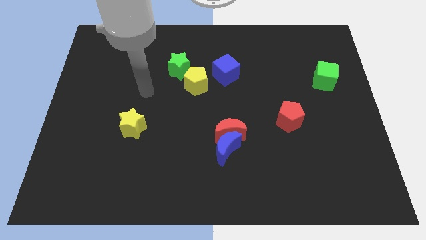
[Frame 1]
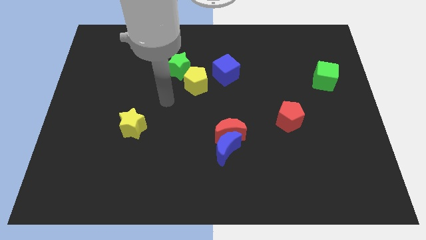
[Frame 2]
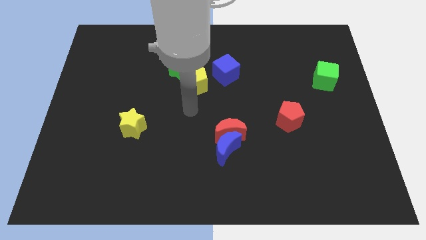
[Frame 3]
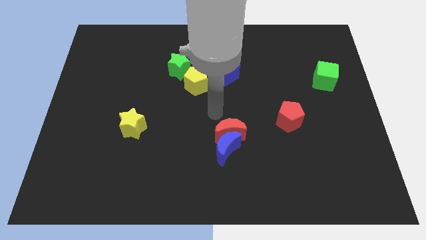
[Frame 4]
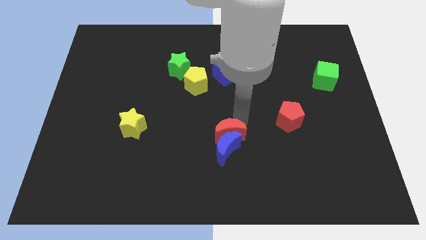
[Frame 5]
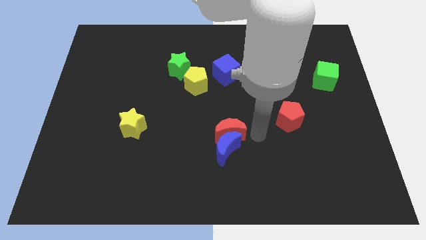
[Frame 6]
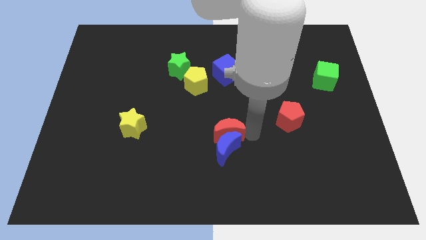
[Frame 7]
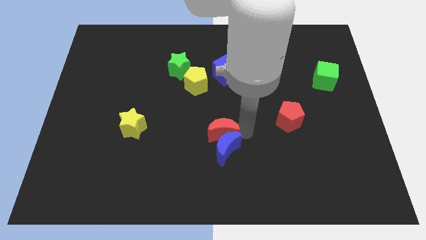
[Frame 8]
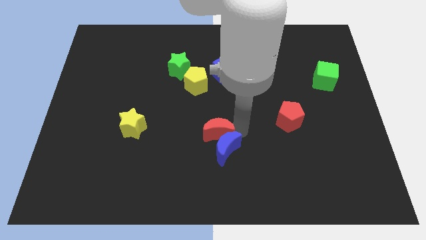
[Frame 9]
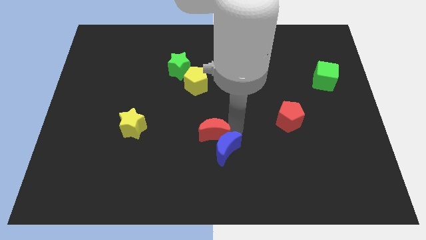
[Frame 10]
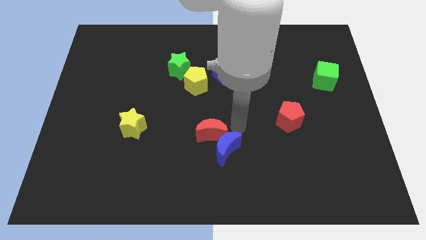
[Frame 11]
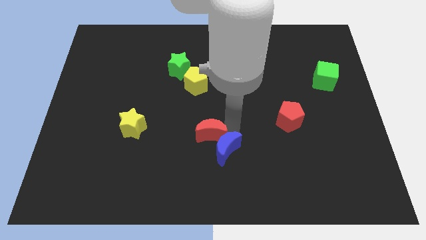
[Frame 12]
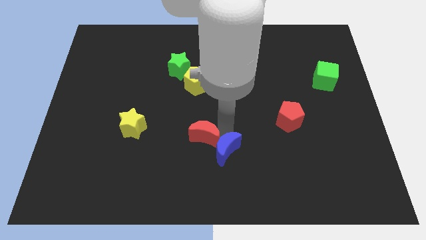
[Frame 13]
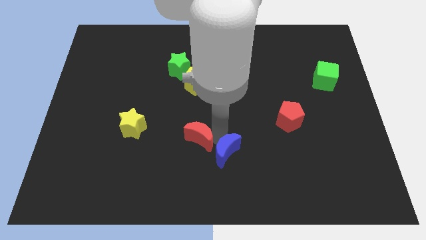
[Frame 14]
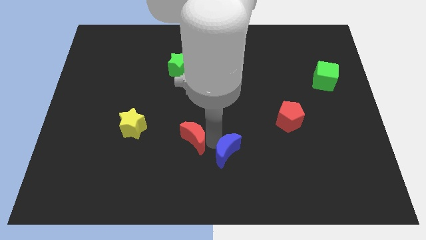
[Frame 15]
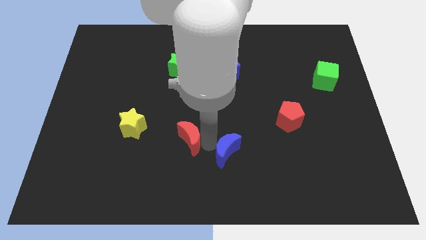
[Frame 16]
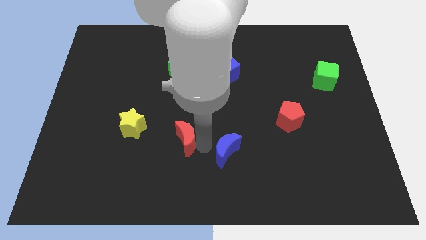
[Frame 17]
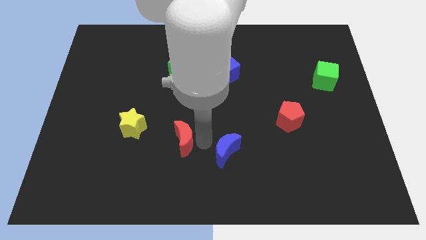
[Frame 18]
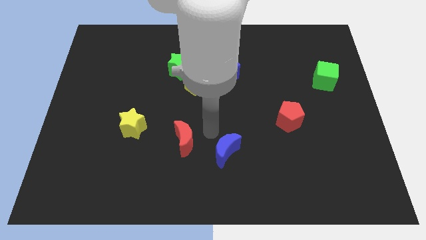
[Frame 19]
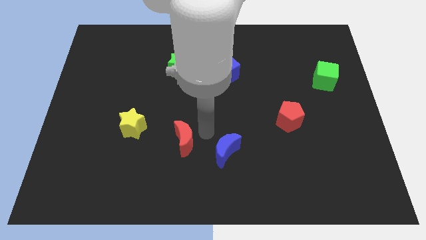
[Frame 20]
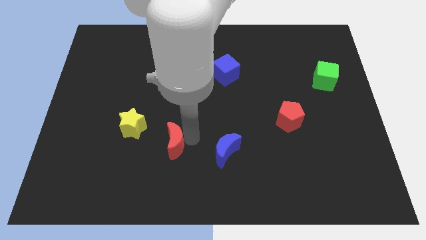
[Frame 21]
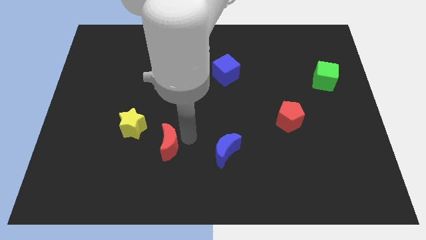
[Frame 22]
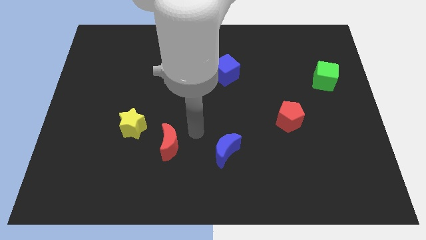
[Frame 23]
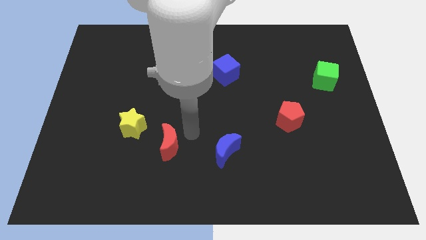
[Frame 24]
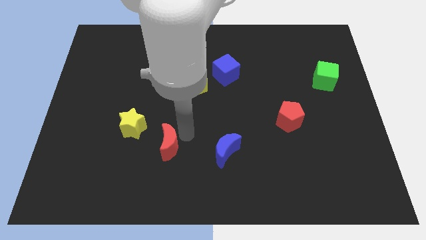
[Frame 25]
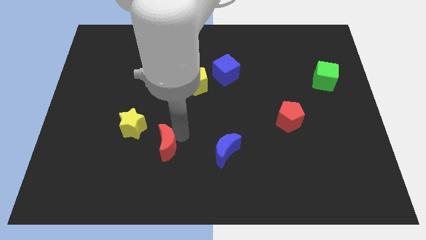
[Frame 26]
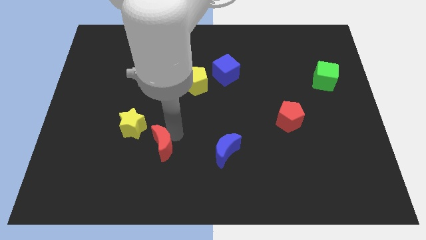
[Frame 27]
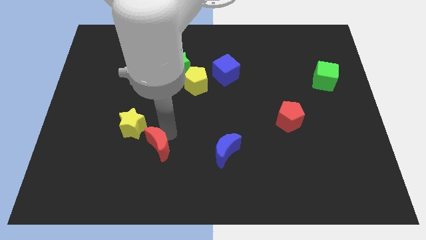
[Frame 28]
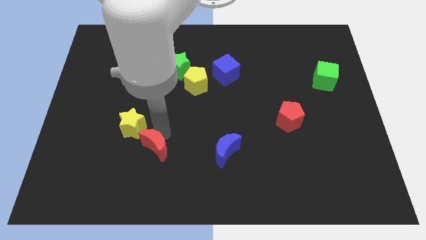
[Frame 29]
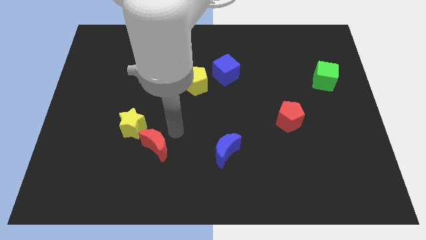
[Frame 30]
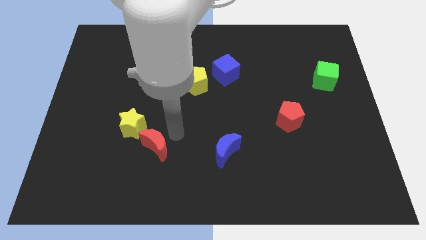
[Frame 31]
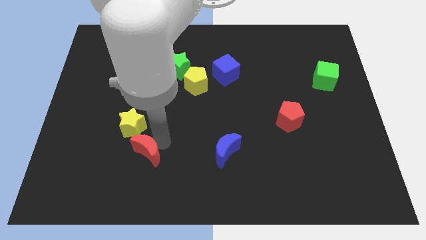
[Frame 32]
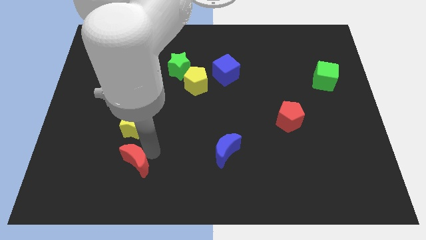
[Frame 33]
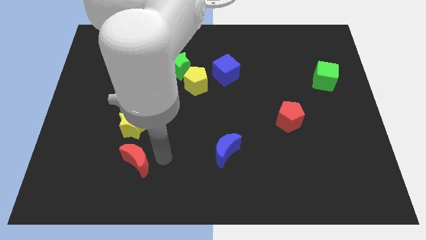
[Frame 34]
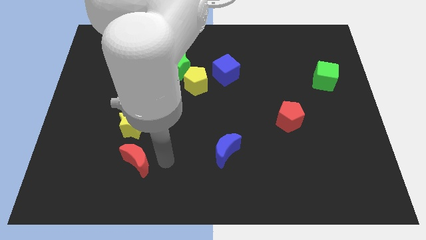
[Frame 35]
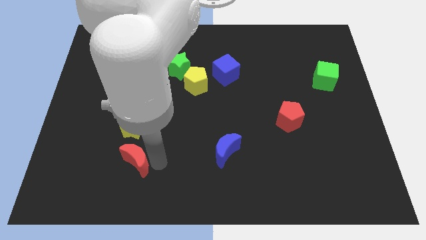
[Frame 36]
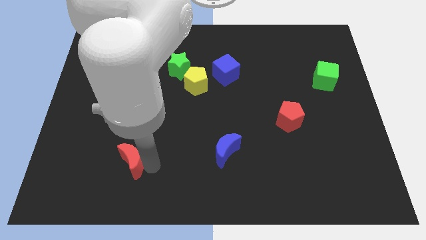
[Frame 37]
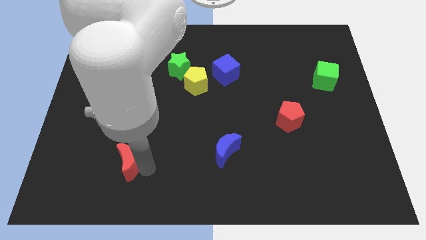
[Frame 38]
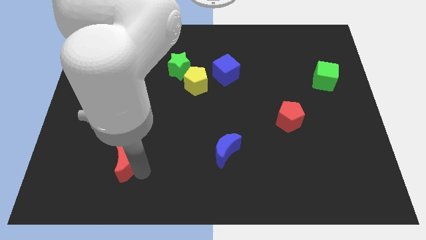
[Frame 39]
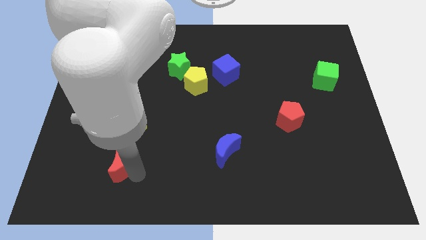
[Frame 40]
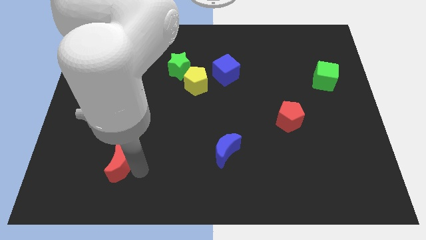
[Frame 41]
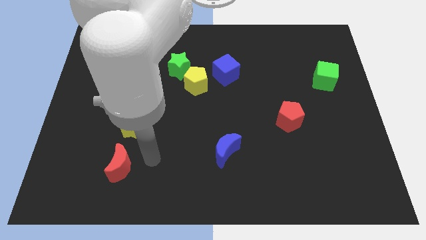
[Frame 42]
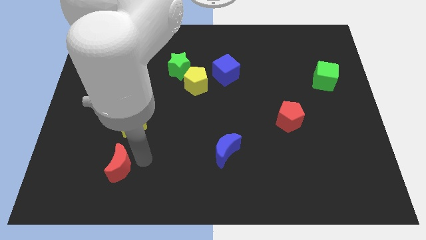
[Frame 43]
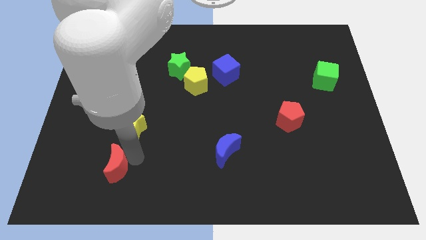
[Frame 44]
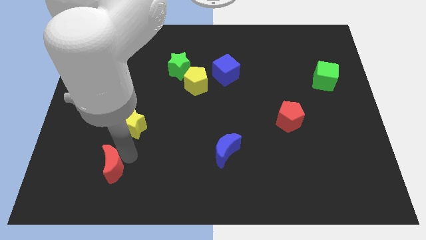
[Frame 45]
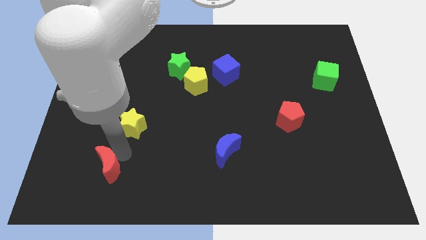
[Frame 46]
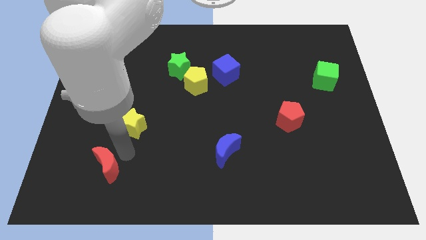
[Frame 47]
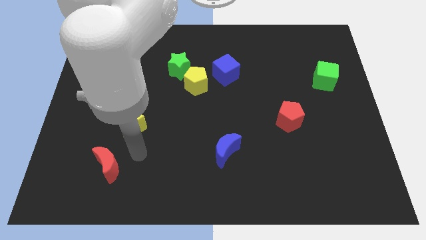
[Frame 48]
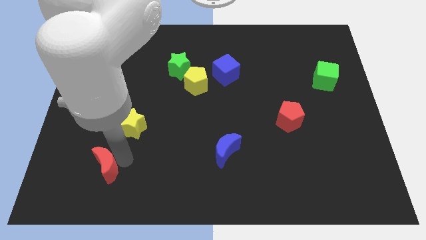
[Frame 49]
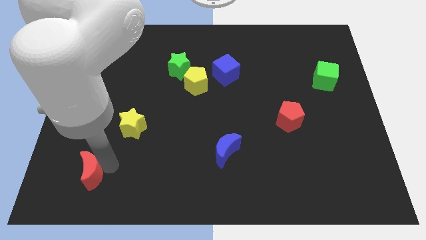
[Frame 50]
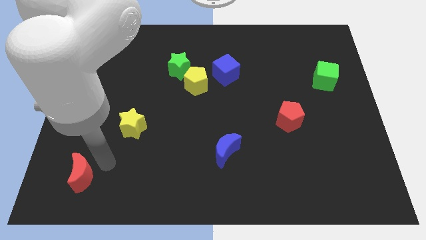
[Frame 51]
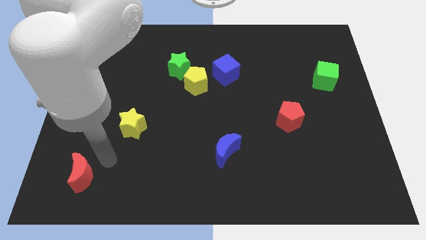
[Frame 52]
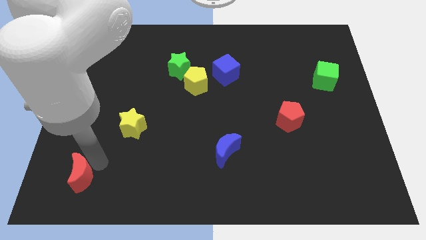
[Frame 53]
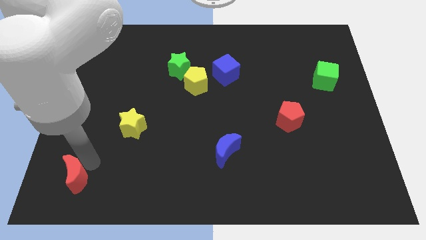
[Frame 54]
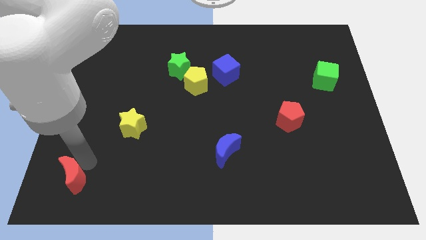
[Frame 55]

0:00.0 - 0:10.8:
move the red moon to the bottom left of the board

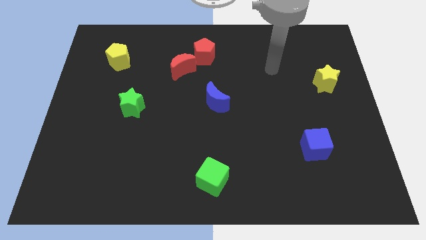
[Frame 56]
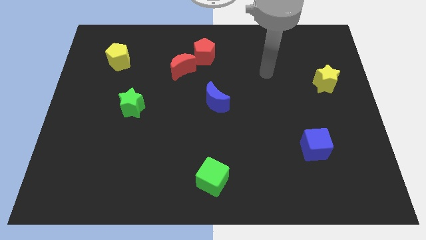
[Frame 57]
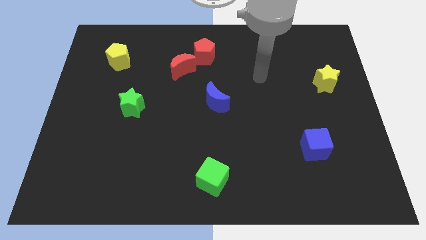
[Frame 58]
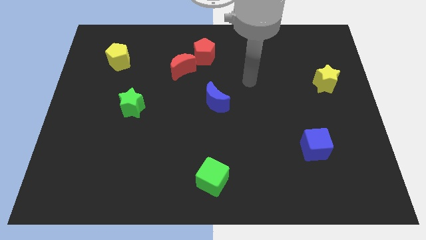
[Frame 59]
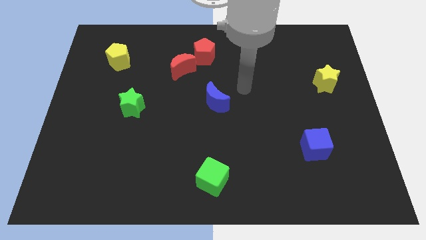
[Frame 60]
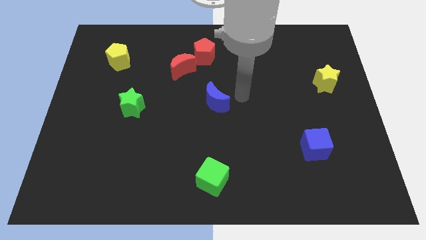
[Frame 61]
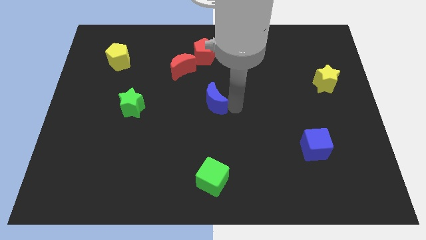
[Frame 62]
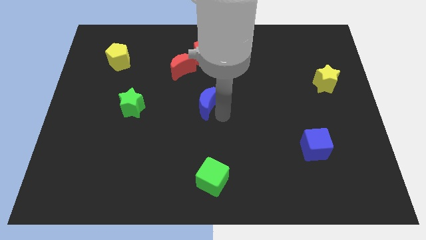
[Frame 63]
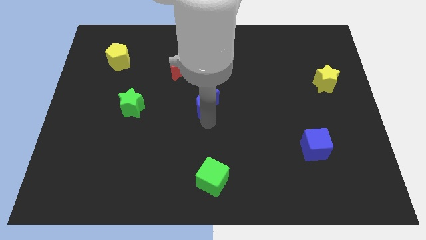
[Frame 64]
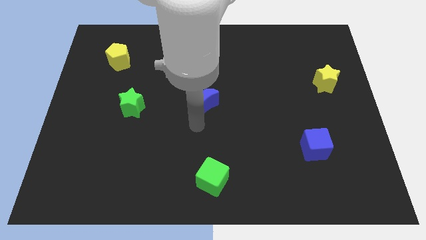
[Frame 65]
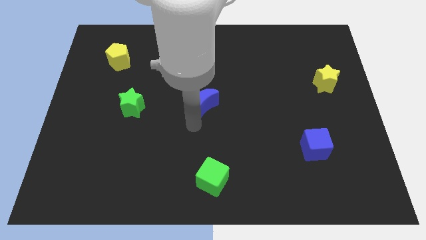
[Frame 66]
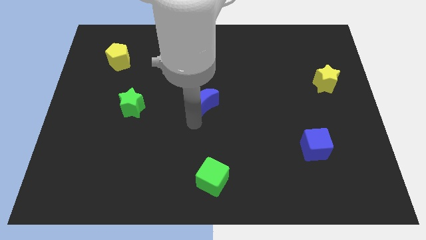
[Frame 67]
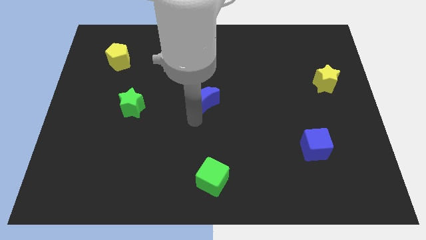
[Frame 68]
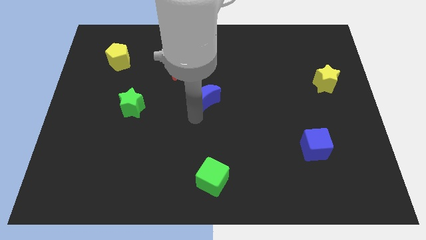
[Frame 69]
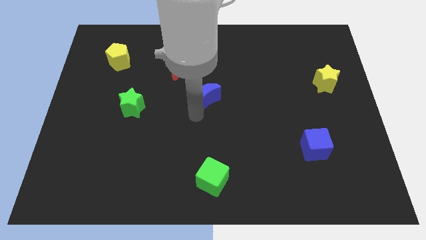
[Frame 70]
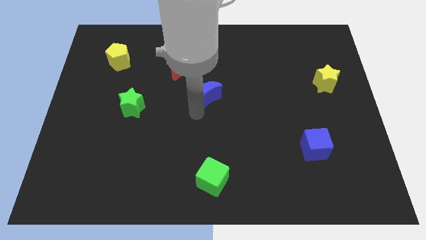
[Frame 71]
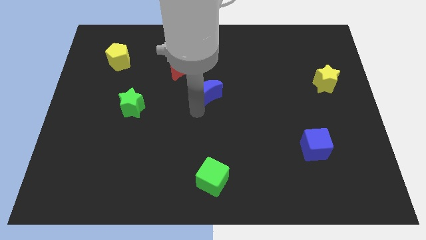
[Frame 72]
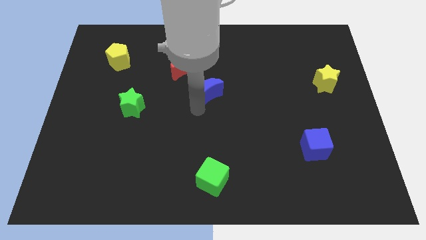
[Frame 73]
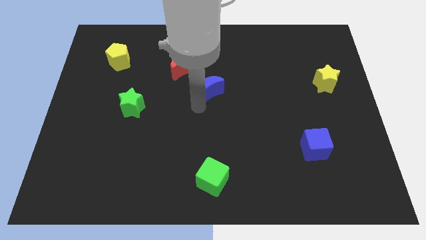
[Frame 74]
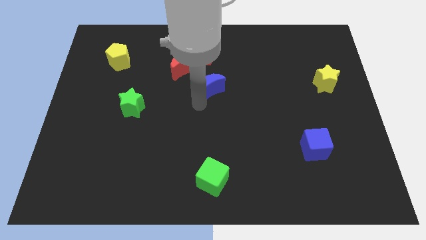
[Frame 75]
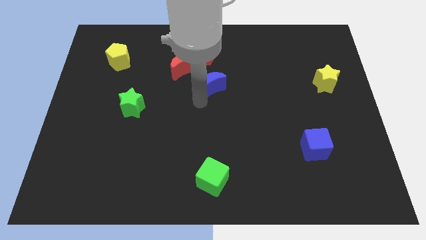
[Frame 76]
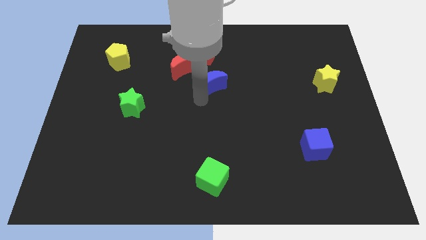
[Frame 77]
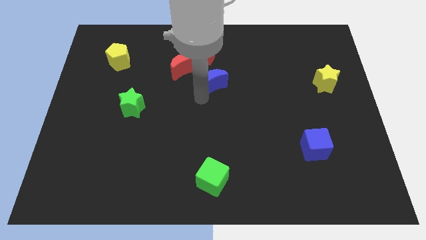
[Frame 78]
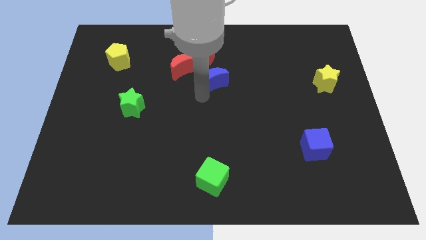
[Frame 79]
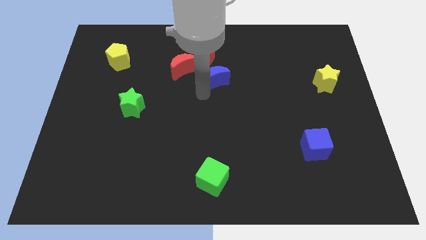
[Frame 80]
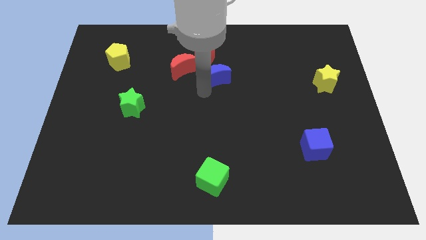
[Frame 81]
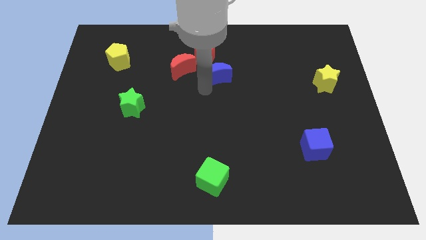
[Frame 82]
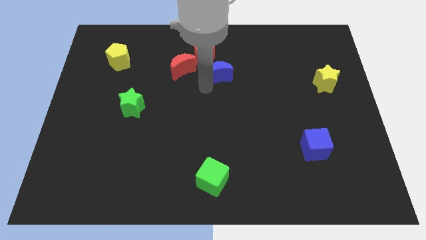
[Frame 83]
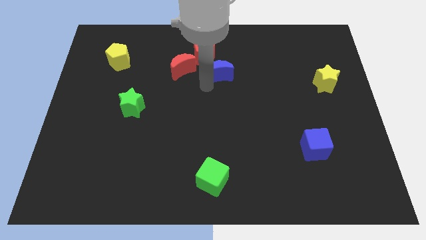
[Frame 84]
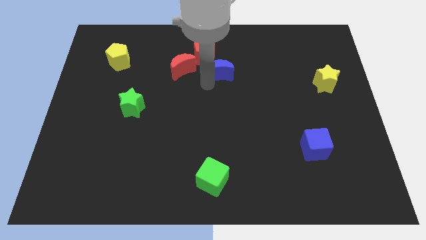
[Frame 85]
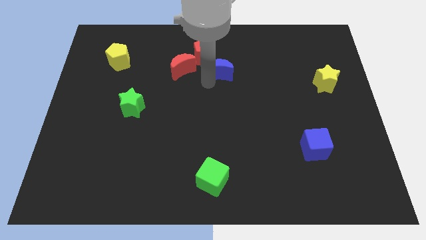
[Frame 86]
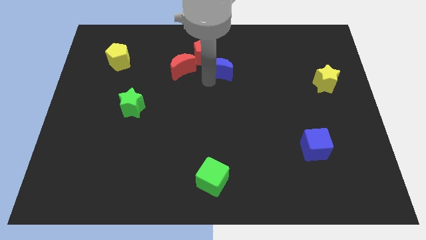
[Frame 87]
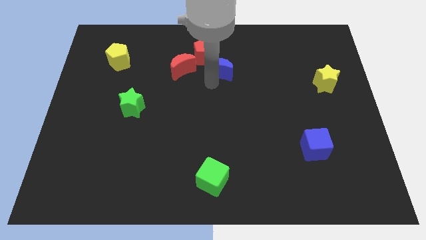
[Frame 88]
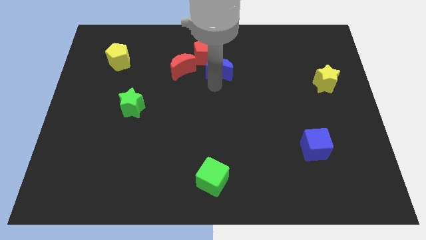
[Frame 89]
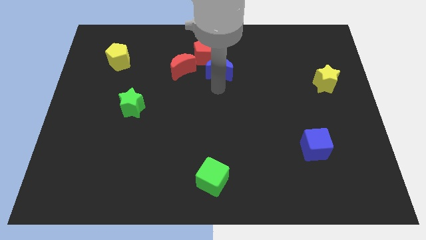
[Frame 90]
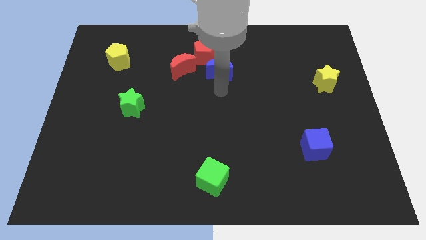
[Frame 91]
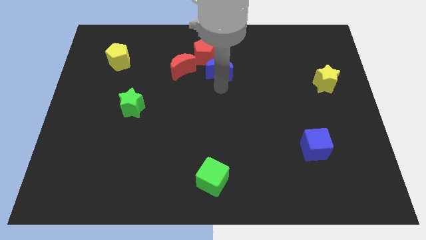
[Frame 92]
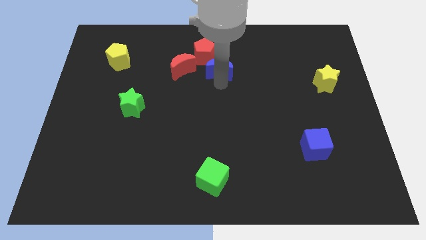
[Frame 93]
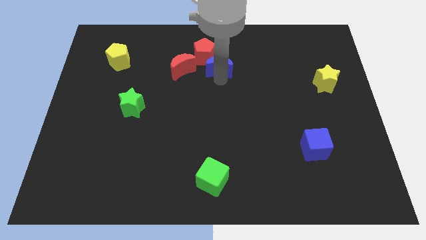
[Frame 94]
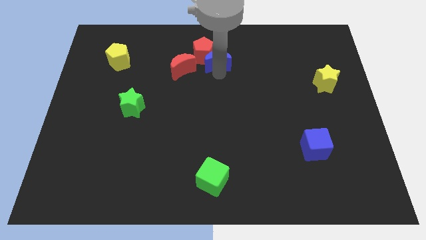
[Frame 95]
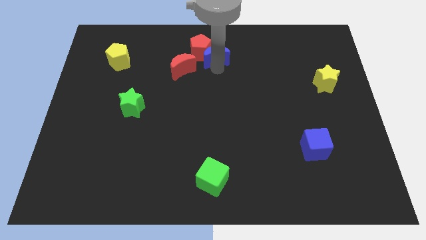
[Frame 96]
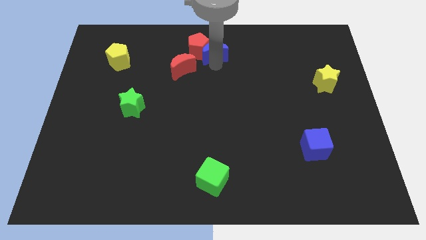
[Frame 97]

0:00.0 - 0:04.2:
put the blue moon to the top
